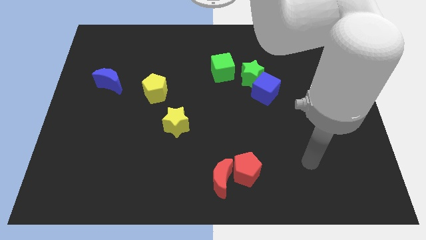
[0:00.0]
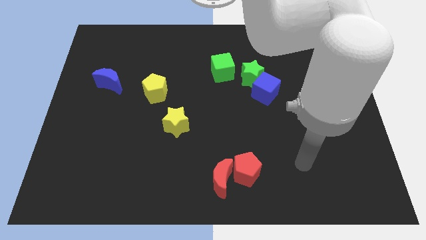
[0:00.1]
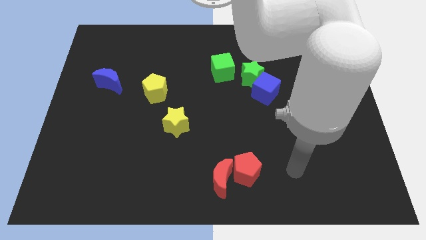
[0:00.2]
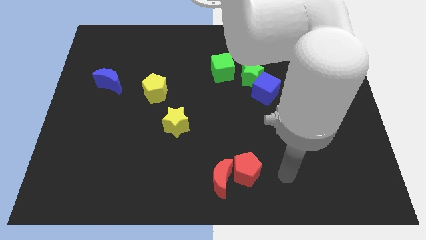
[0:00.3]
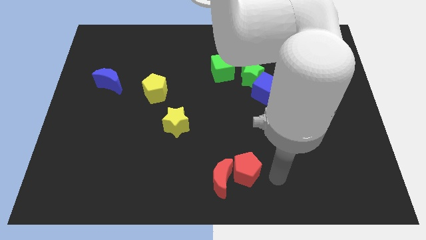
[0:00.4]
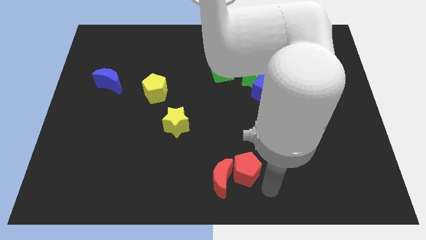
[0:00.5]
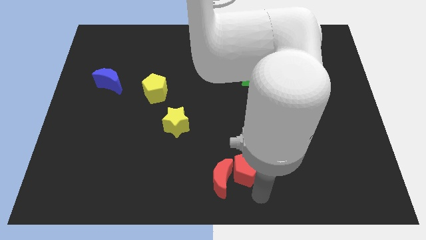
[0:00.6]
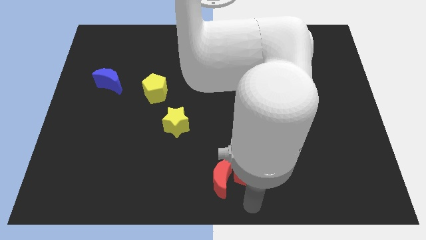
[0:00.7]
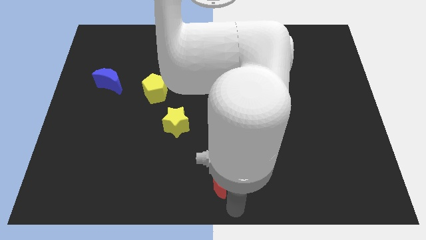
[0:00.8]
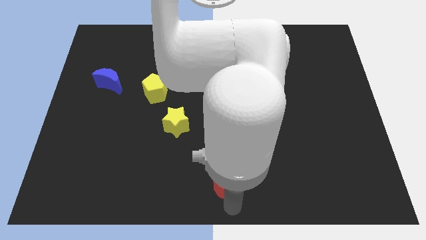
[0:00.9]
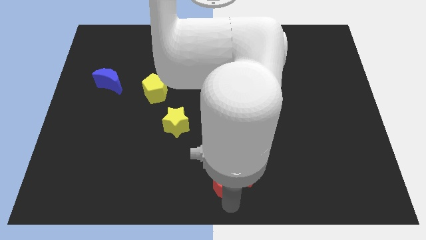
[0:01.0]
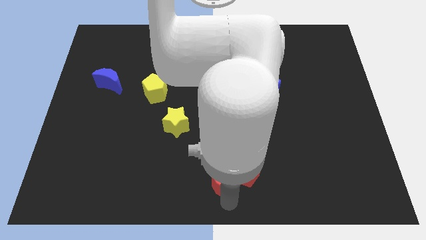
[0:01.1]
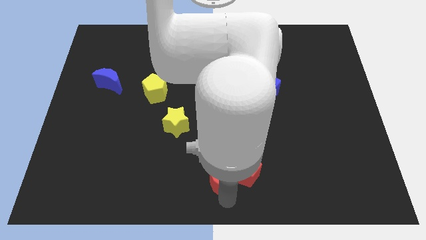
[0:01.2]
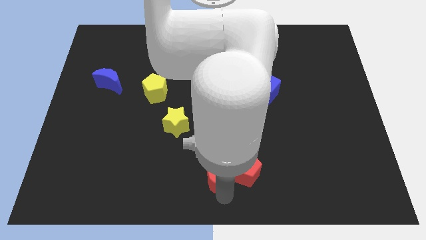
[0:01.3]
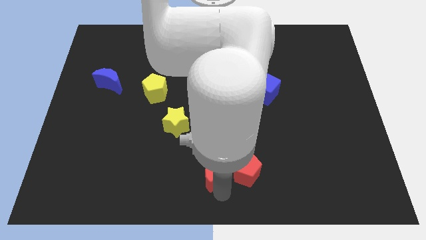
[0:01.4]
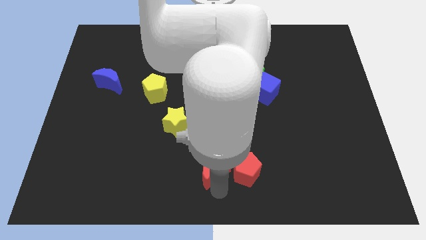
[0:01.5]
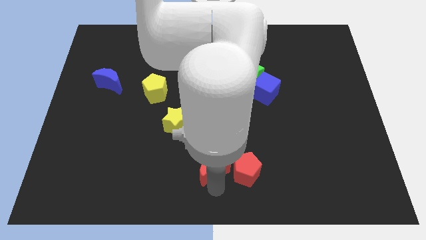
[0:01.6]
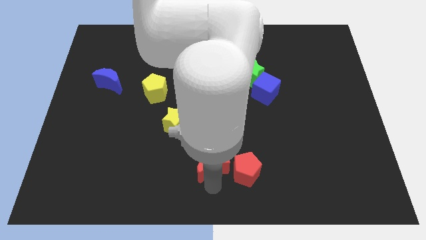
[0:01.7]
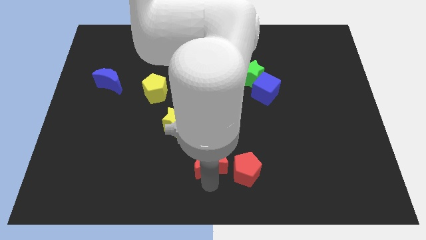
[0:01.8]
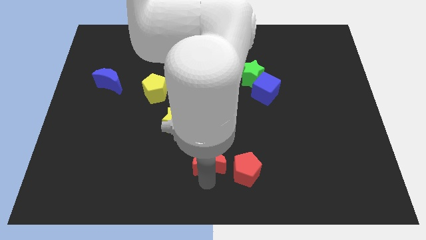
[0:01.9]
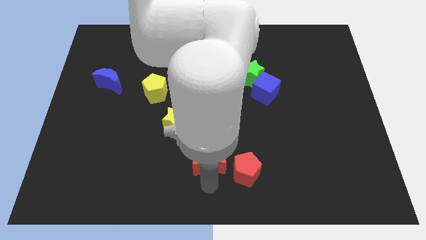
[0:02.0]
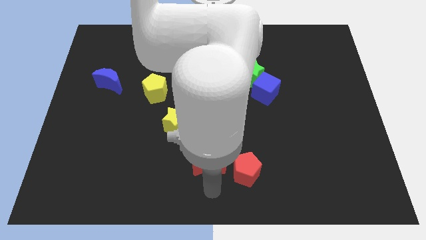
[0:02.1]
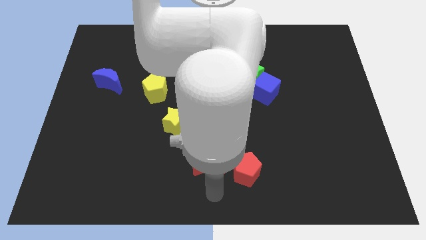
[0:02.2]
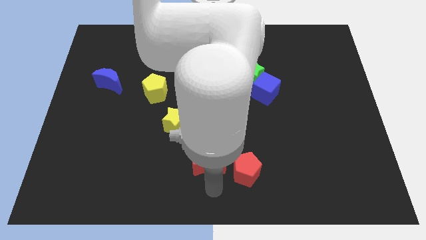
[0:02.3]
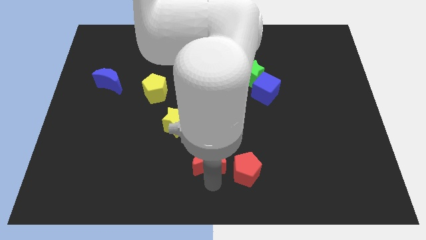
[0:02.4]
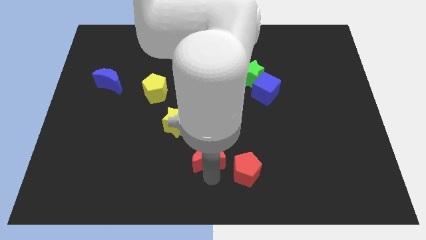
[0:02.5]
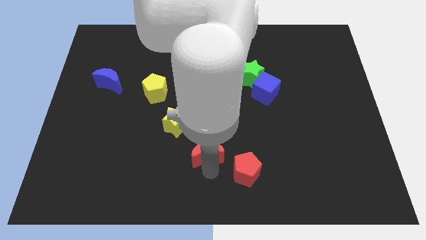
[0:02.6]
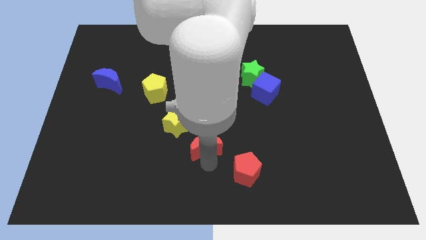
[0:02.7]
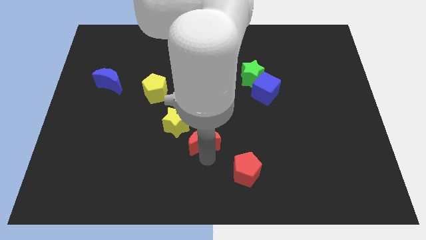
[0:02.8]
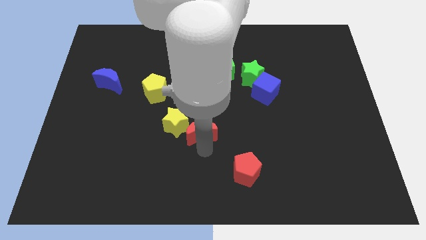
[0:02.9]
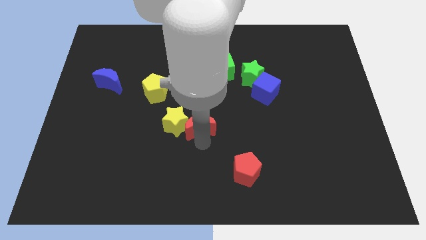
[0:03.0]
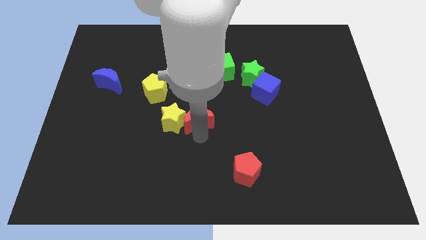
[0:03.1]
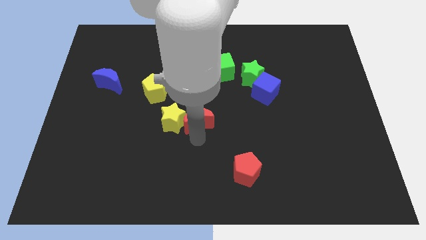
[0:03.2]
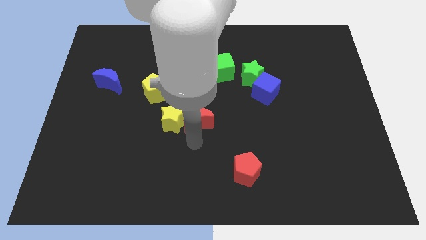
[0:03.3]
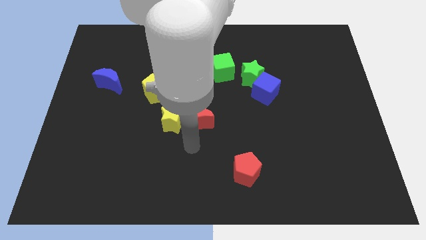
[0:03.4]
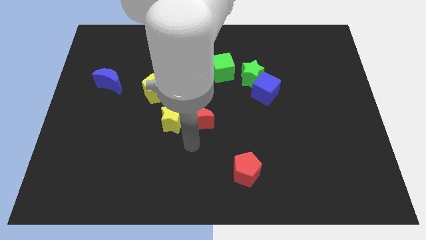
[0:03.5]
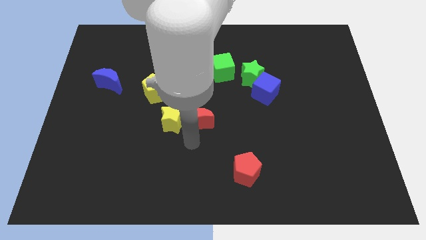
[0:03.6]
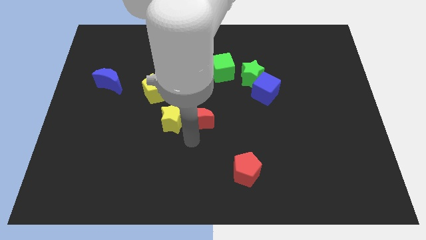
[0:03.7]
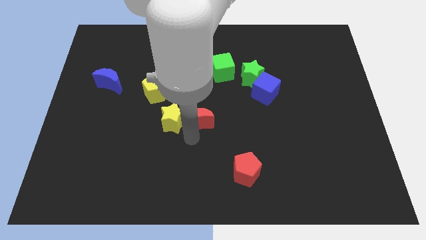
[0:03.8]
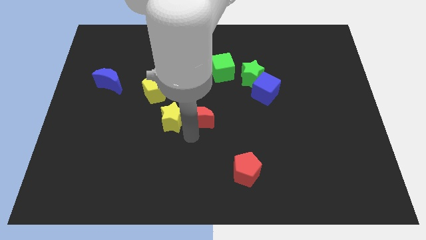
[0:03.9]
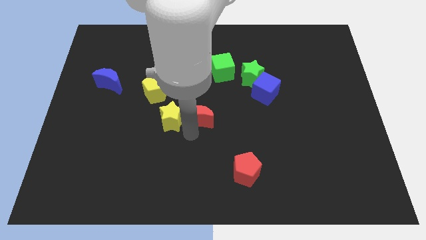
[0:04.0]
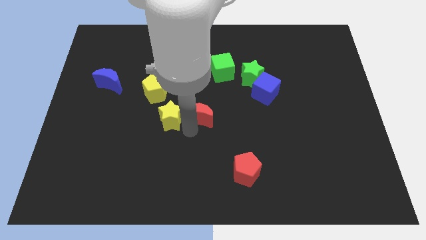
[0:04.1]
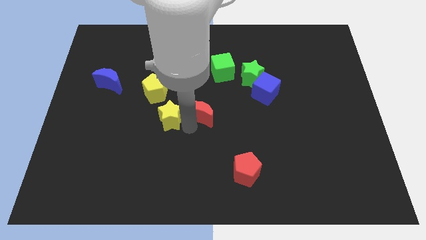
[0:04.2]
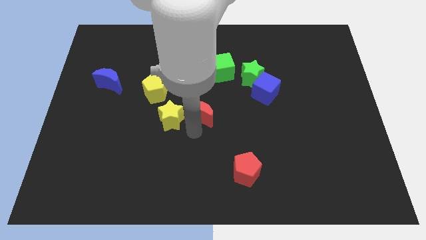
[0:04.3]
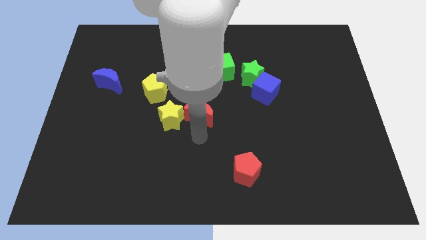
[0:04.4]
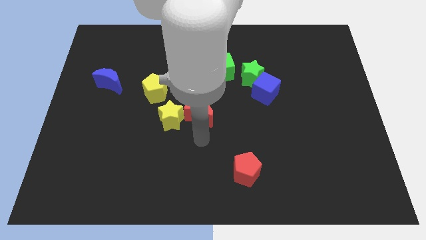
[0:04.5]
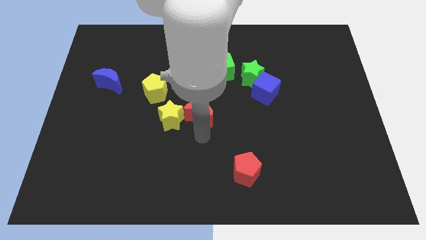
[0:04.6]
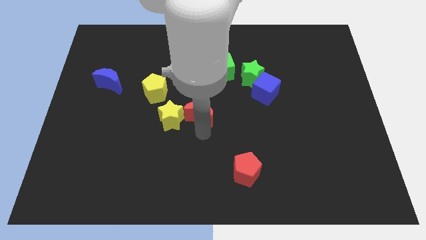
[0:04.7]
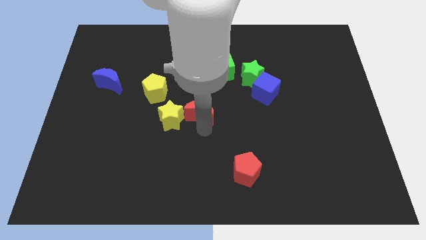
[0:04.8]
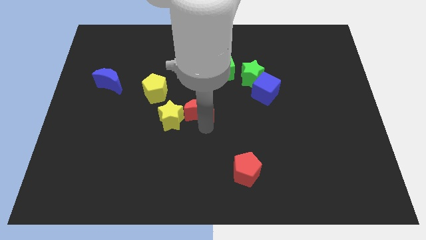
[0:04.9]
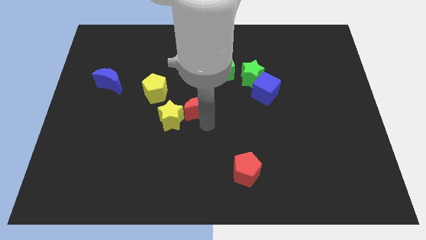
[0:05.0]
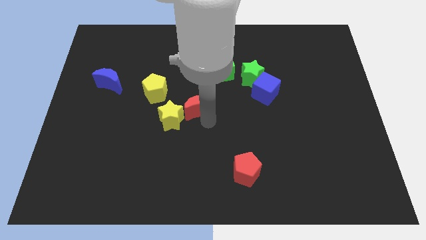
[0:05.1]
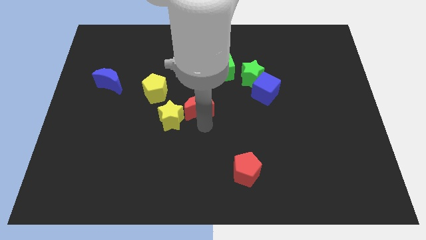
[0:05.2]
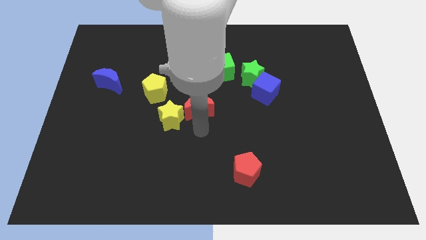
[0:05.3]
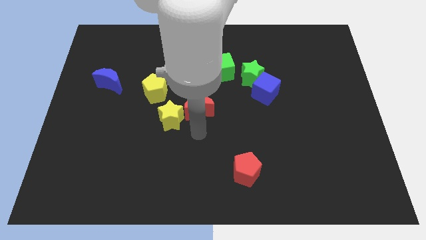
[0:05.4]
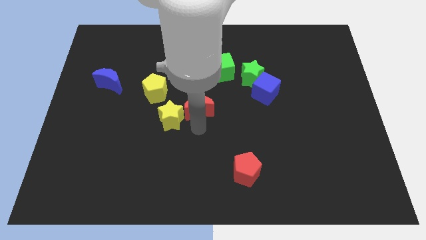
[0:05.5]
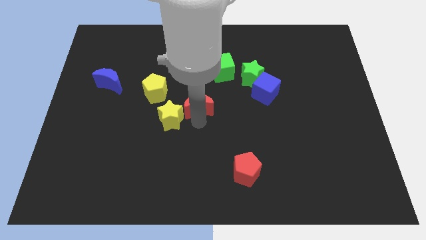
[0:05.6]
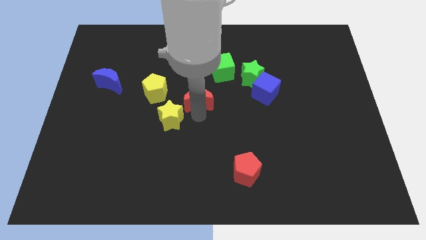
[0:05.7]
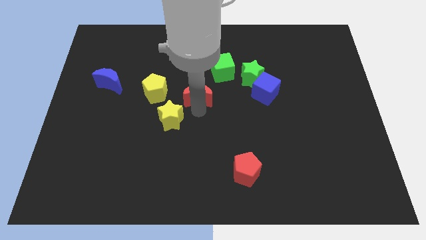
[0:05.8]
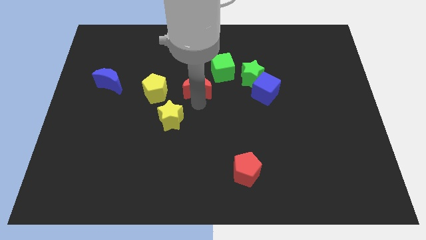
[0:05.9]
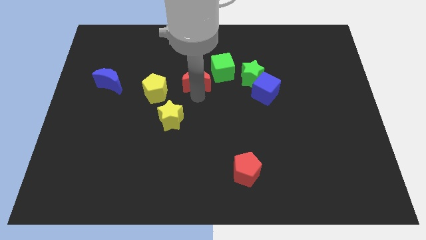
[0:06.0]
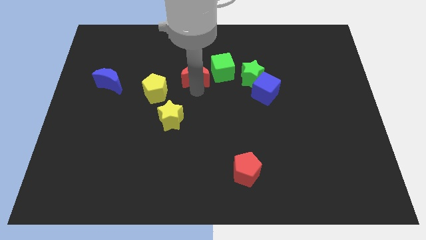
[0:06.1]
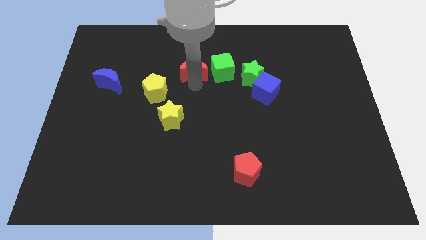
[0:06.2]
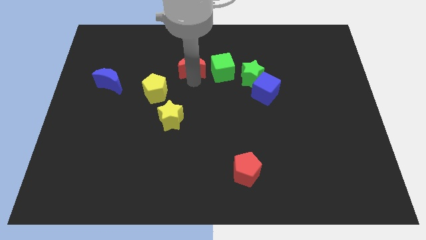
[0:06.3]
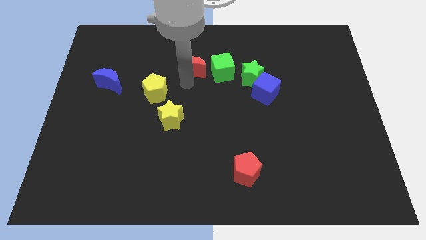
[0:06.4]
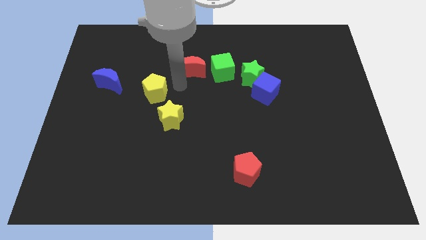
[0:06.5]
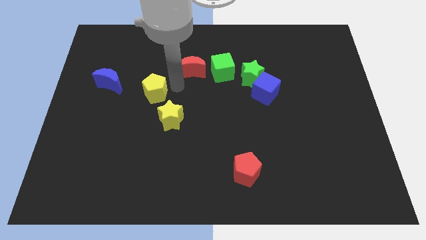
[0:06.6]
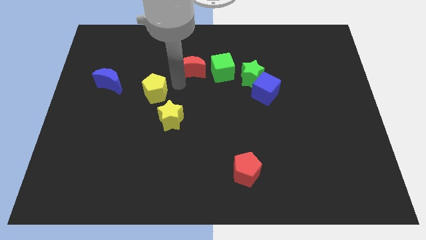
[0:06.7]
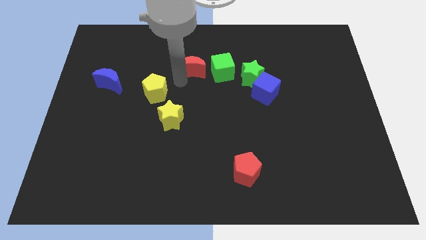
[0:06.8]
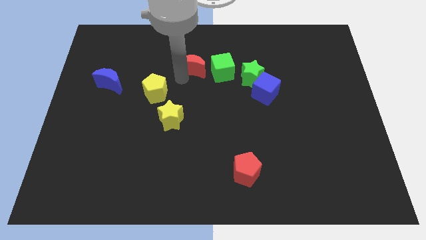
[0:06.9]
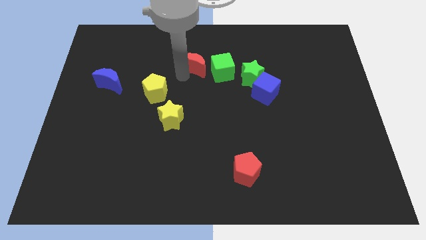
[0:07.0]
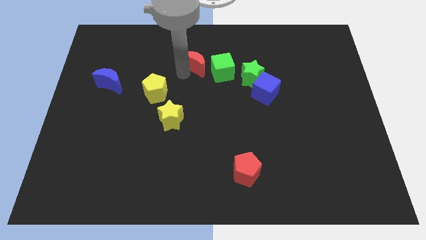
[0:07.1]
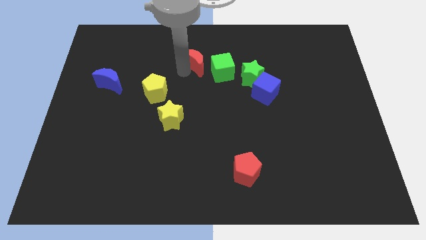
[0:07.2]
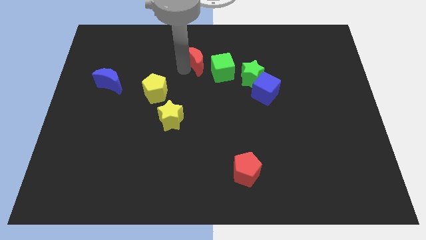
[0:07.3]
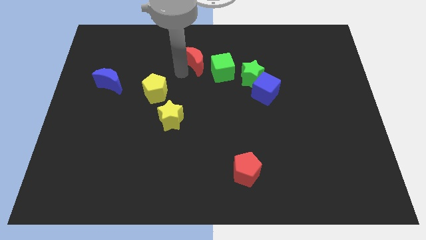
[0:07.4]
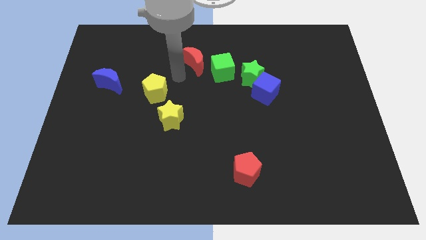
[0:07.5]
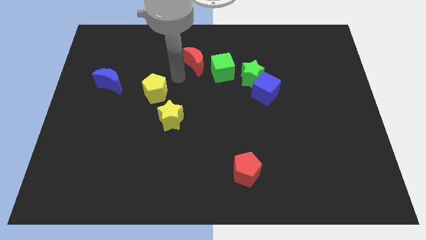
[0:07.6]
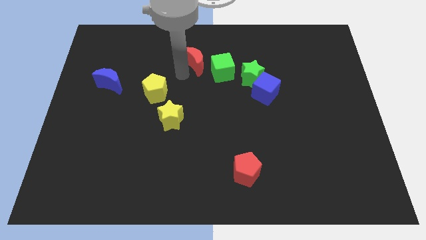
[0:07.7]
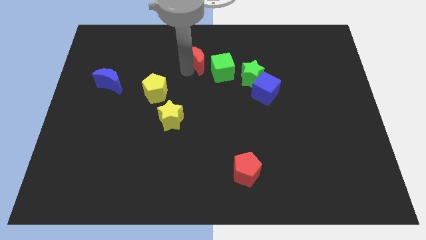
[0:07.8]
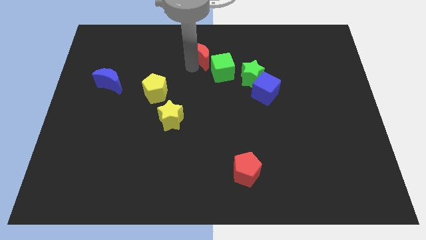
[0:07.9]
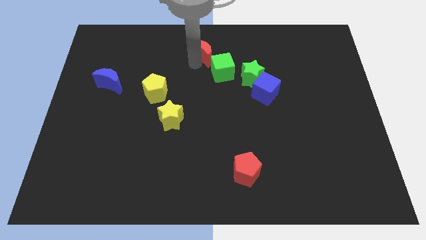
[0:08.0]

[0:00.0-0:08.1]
put the red moon to the top side
